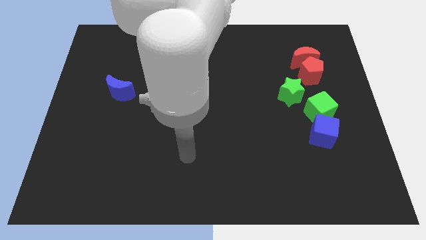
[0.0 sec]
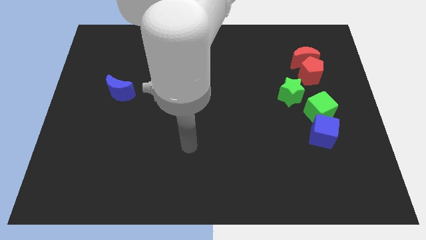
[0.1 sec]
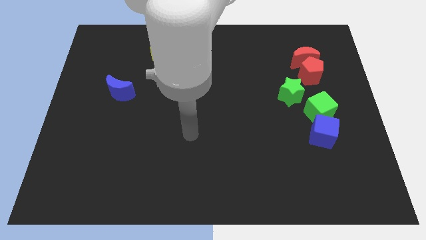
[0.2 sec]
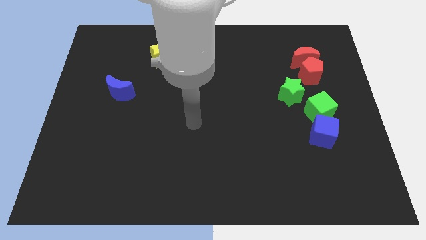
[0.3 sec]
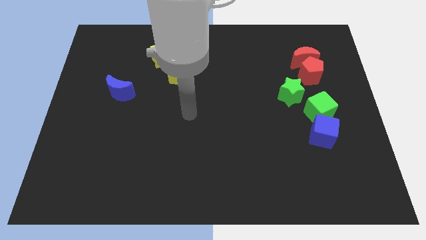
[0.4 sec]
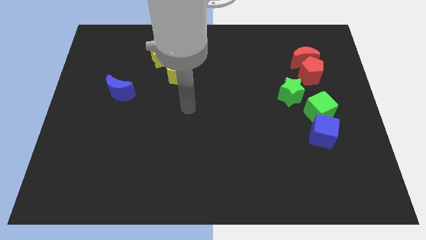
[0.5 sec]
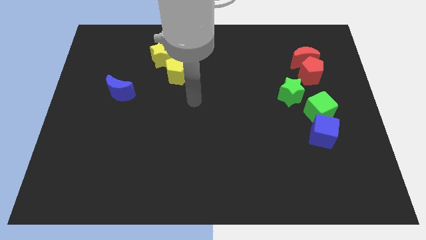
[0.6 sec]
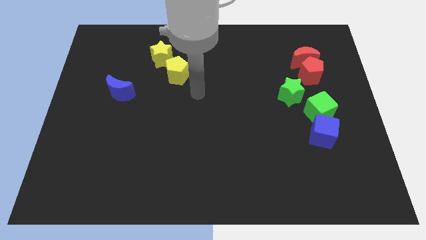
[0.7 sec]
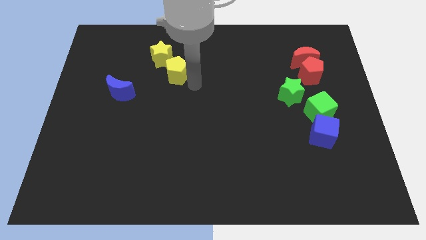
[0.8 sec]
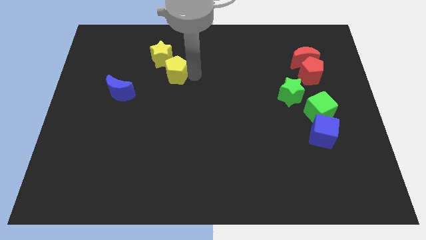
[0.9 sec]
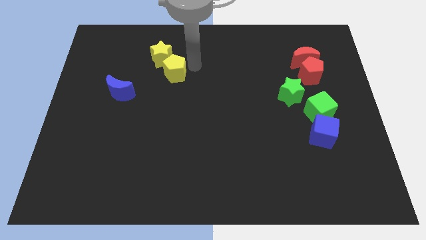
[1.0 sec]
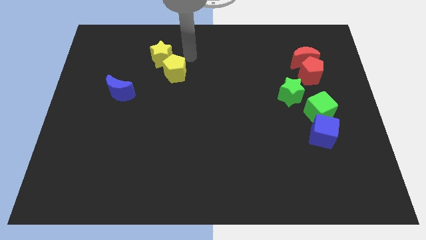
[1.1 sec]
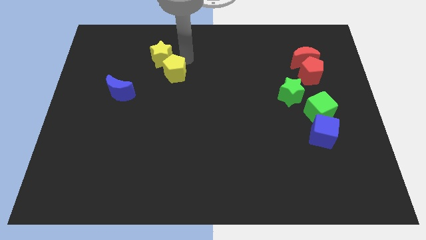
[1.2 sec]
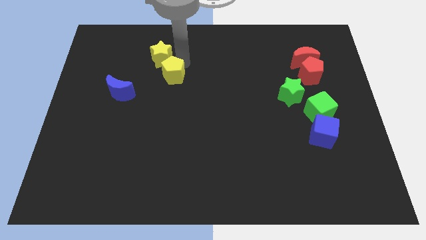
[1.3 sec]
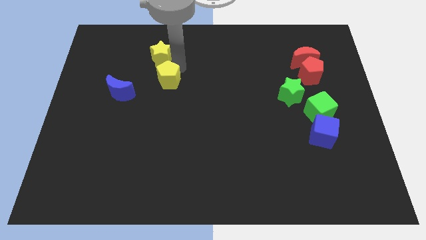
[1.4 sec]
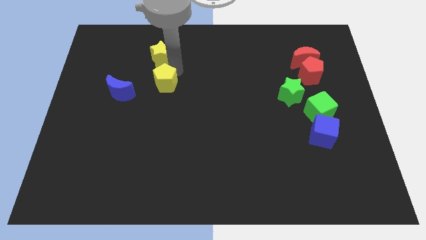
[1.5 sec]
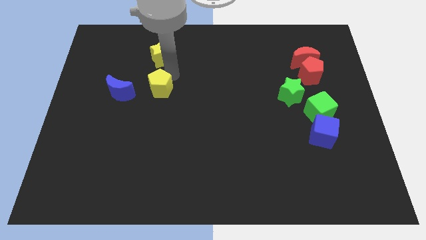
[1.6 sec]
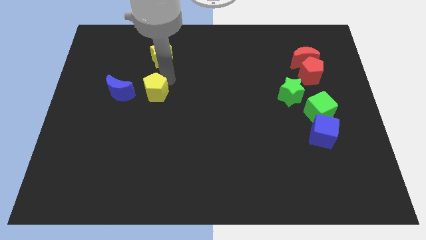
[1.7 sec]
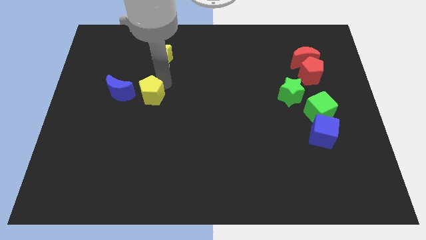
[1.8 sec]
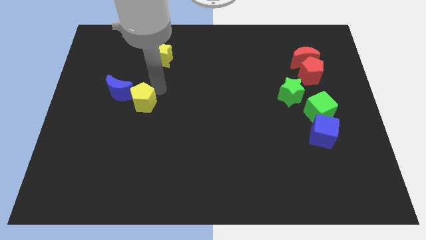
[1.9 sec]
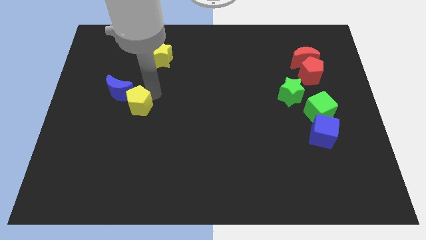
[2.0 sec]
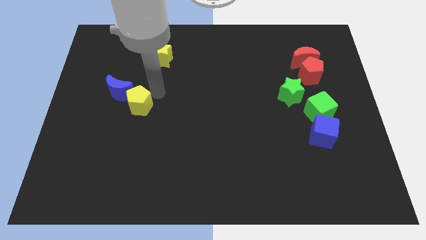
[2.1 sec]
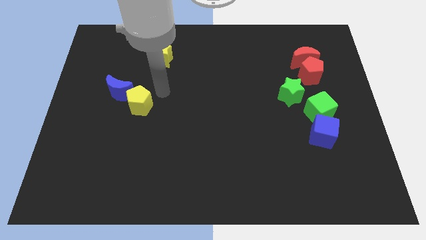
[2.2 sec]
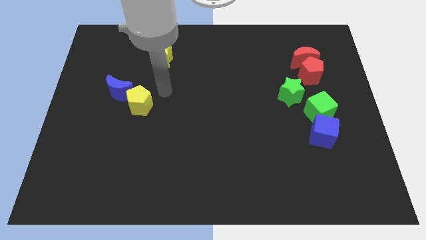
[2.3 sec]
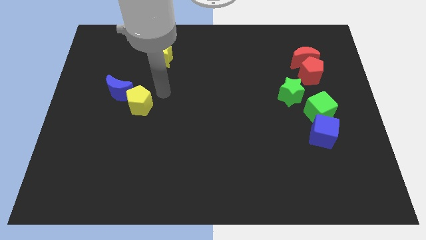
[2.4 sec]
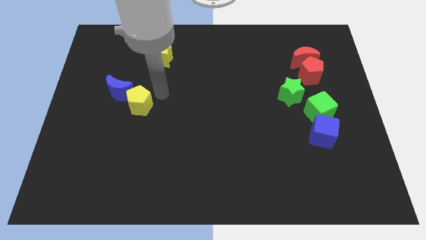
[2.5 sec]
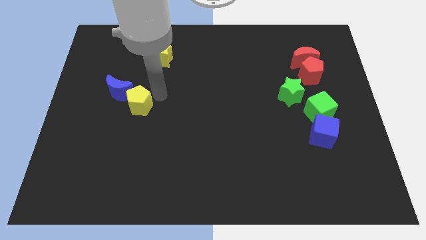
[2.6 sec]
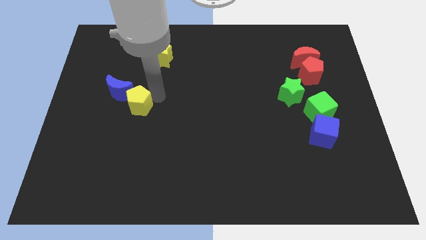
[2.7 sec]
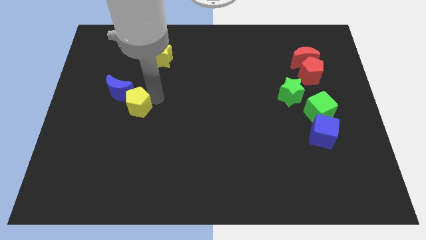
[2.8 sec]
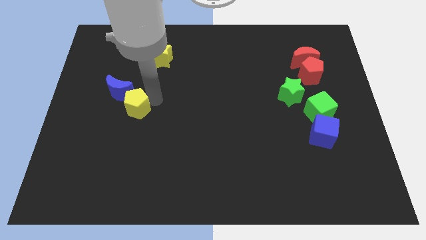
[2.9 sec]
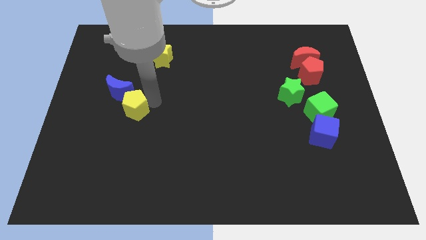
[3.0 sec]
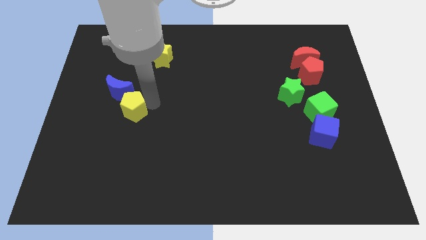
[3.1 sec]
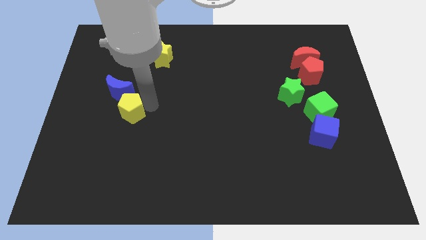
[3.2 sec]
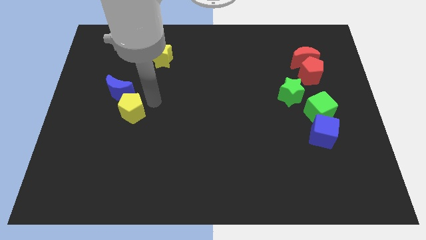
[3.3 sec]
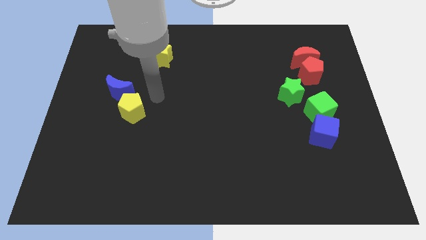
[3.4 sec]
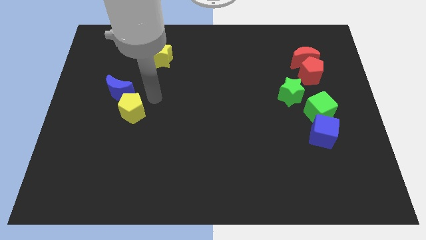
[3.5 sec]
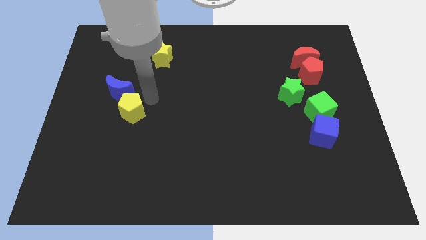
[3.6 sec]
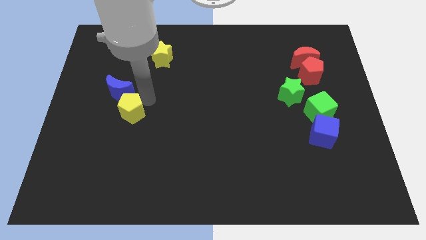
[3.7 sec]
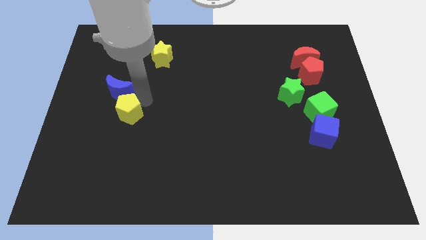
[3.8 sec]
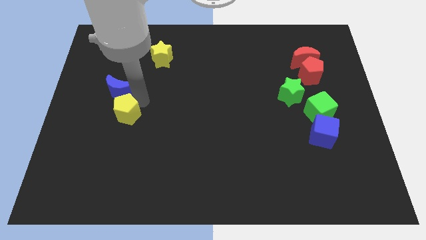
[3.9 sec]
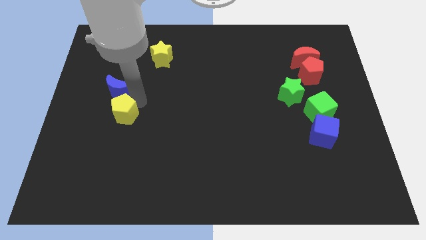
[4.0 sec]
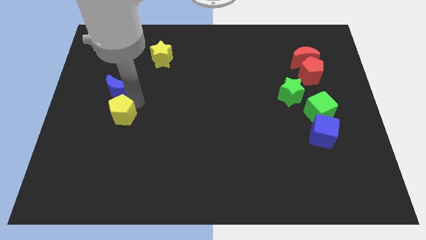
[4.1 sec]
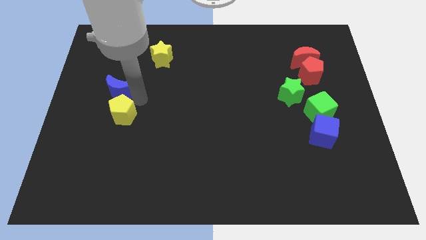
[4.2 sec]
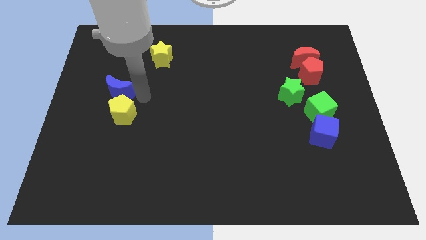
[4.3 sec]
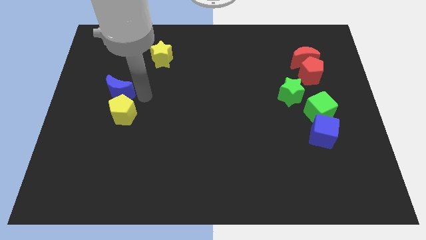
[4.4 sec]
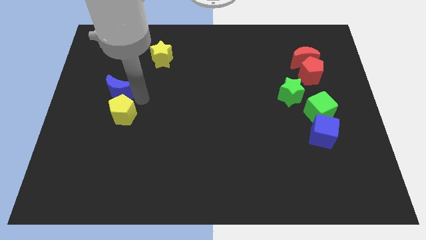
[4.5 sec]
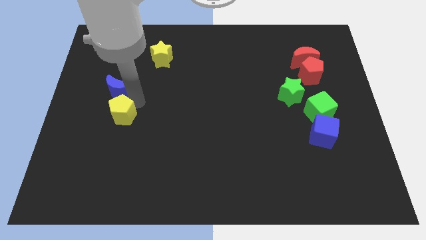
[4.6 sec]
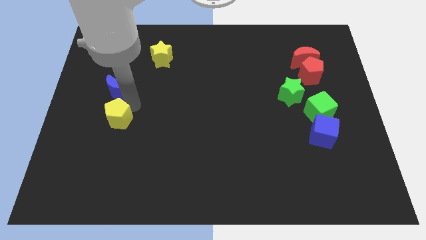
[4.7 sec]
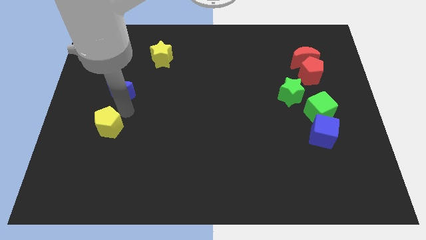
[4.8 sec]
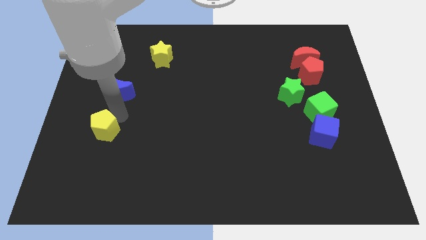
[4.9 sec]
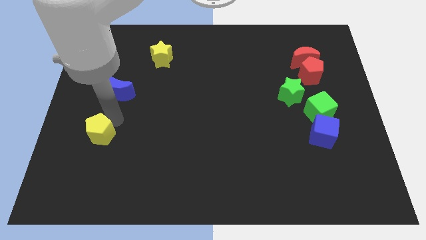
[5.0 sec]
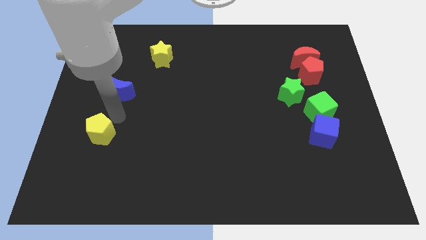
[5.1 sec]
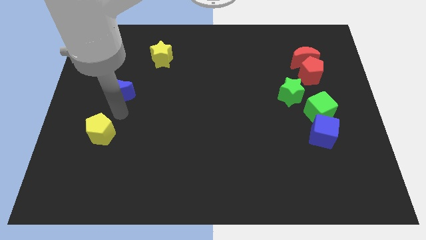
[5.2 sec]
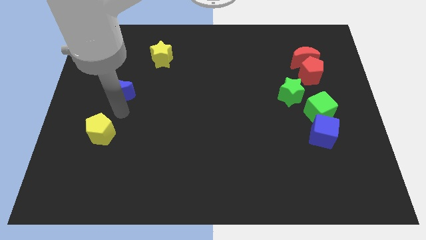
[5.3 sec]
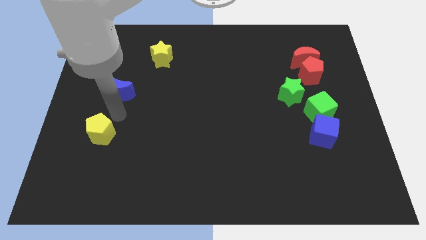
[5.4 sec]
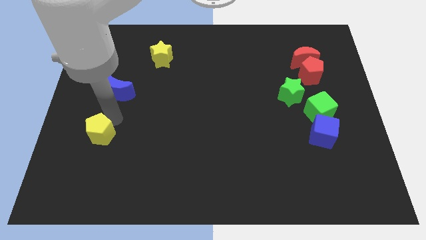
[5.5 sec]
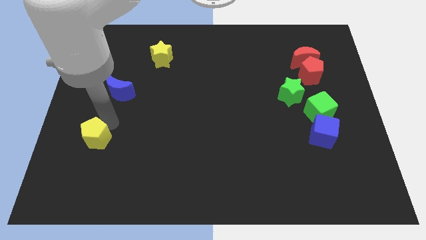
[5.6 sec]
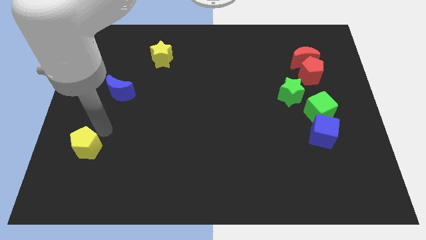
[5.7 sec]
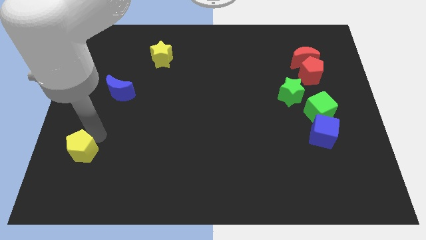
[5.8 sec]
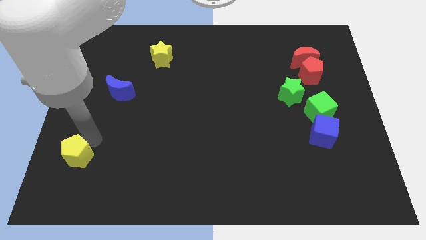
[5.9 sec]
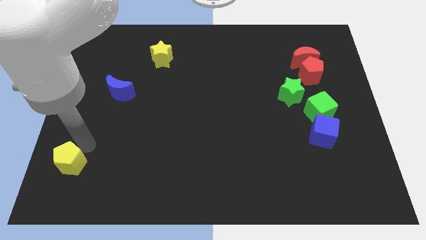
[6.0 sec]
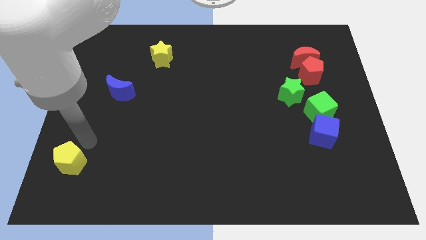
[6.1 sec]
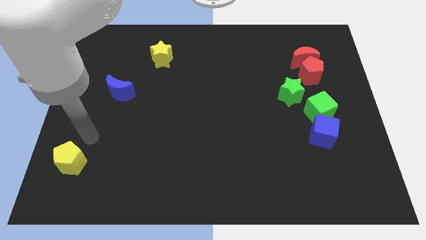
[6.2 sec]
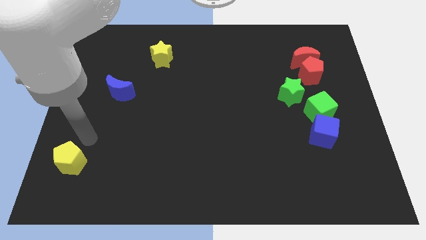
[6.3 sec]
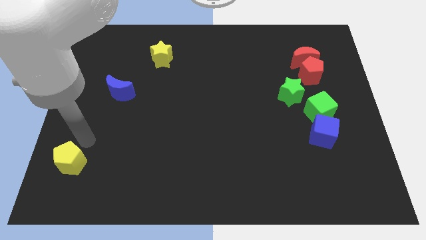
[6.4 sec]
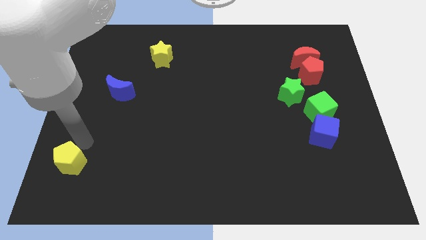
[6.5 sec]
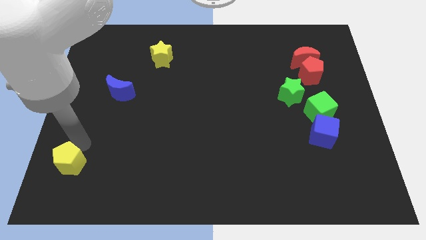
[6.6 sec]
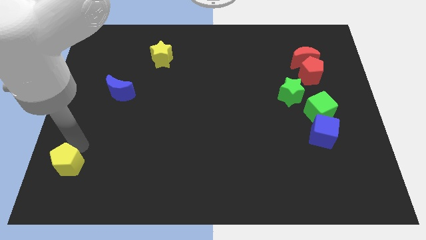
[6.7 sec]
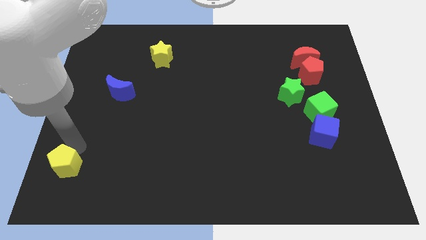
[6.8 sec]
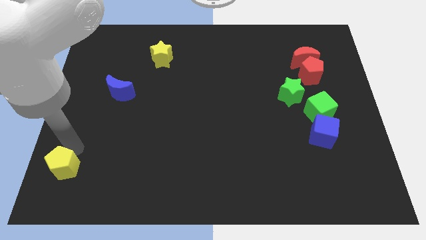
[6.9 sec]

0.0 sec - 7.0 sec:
move the yellow pentagon to the bottom left corner
